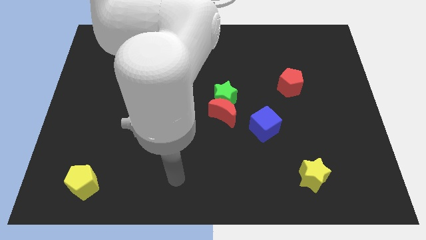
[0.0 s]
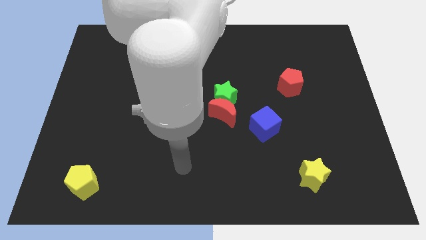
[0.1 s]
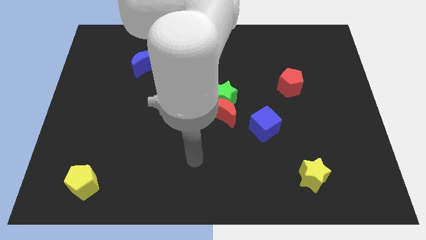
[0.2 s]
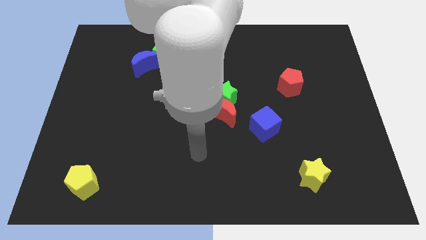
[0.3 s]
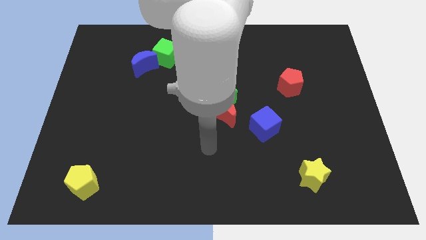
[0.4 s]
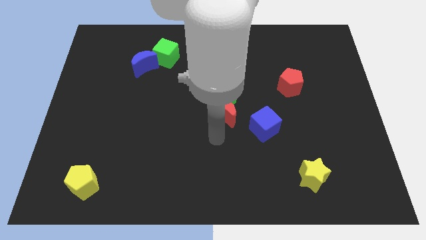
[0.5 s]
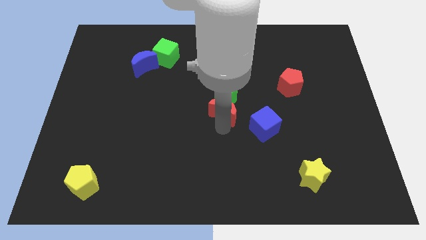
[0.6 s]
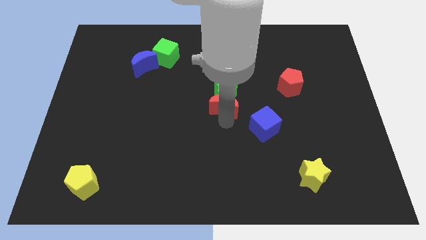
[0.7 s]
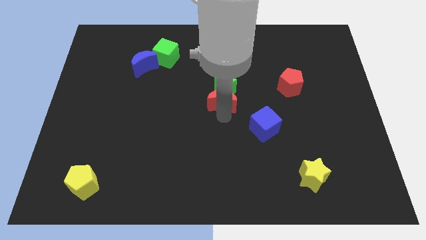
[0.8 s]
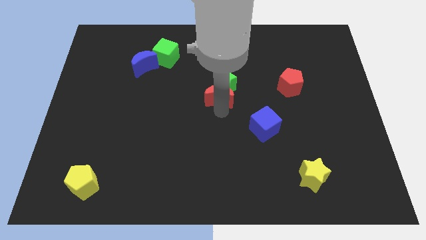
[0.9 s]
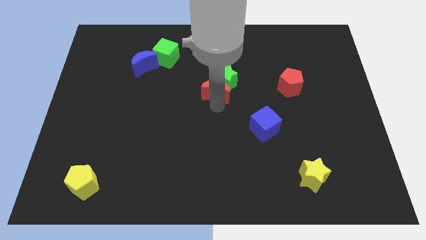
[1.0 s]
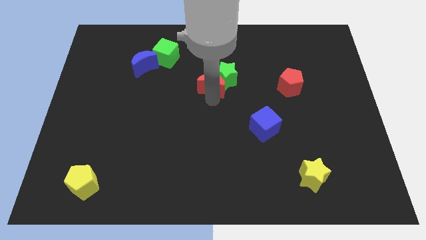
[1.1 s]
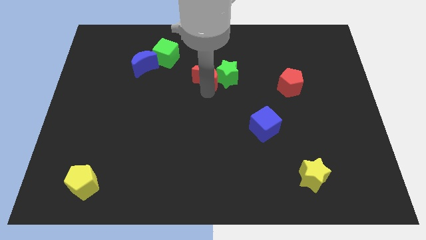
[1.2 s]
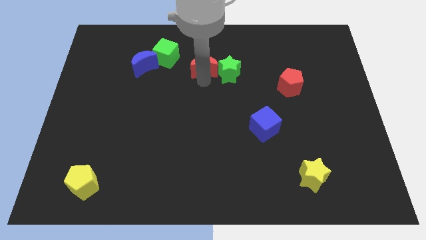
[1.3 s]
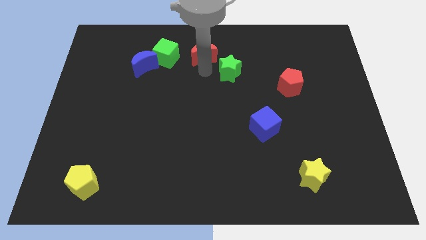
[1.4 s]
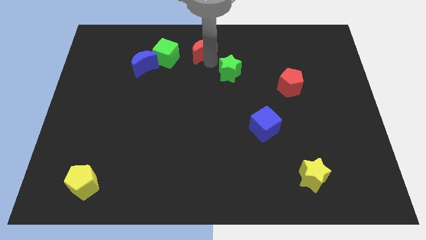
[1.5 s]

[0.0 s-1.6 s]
pull the green star apart from the red moon

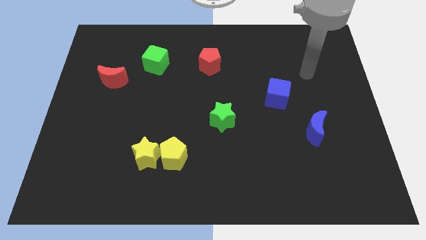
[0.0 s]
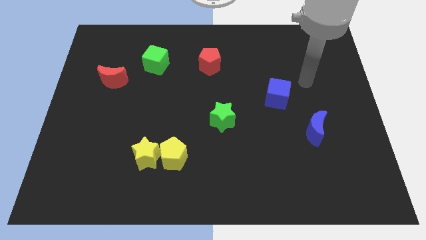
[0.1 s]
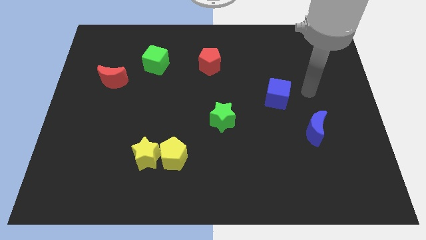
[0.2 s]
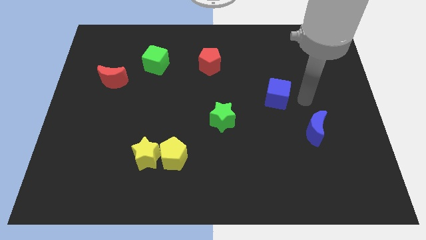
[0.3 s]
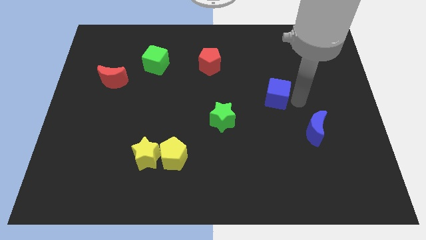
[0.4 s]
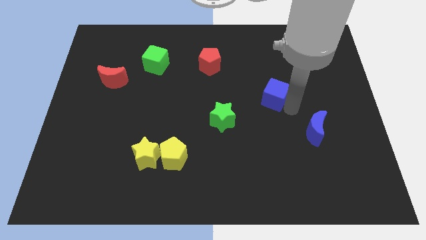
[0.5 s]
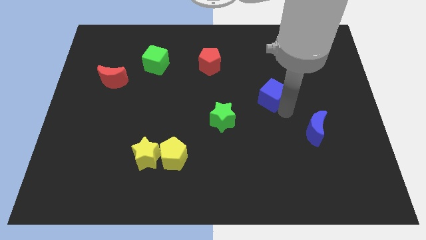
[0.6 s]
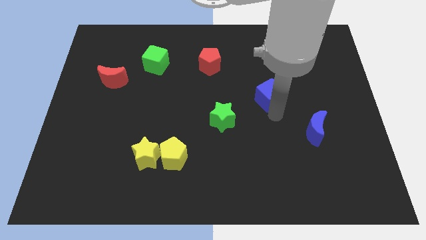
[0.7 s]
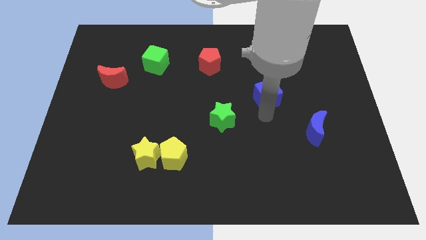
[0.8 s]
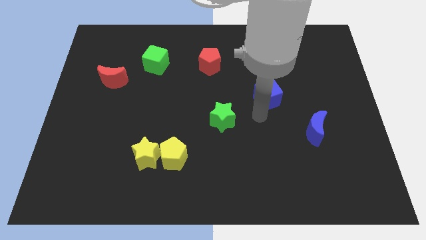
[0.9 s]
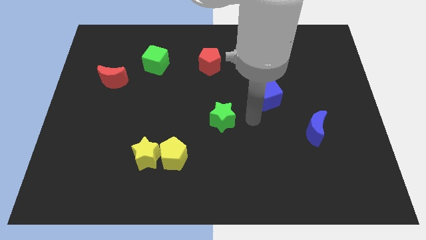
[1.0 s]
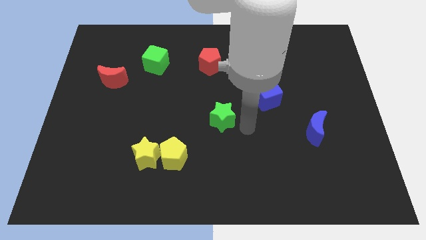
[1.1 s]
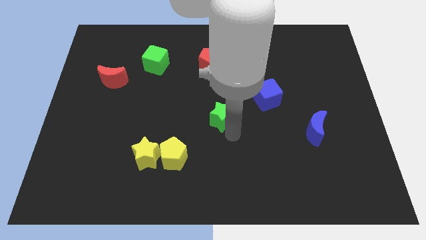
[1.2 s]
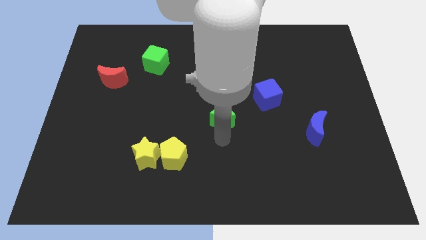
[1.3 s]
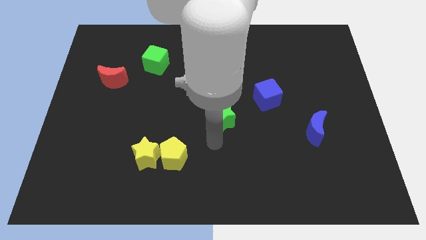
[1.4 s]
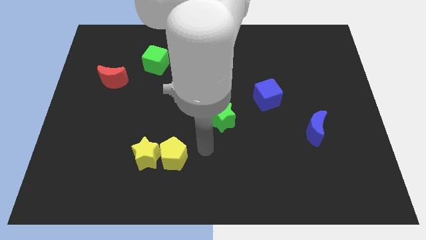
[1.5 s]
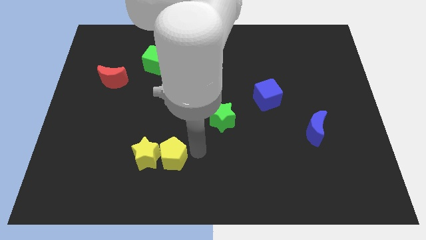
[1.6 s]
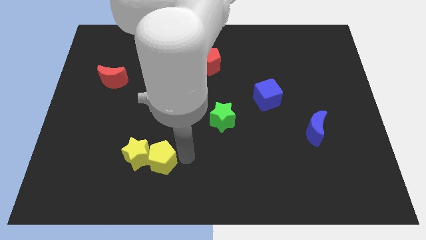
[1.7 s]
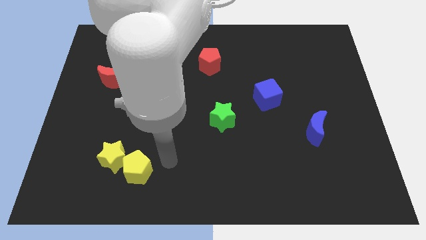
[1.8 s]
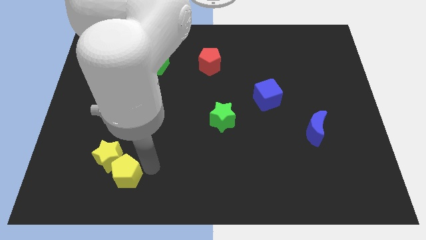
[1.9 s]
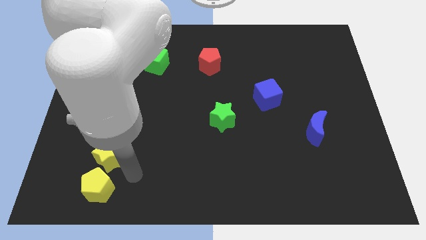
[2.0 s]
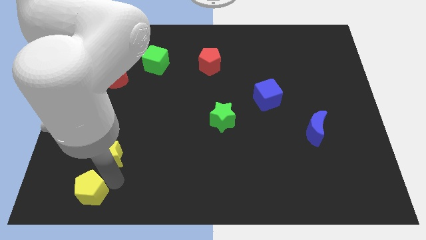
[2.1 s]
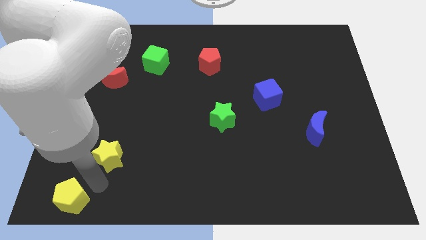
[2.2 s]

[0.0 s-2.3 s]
pull the yellow star apart from the yellow pentagon

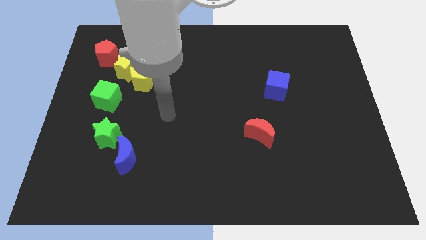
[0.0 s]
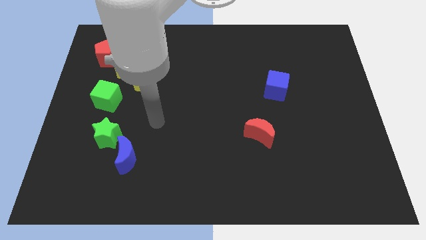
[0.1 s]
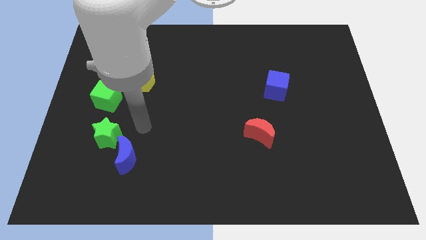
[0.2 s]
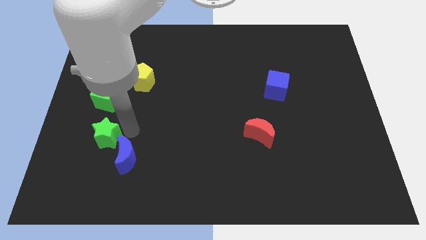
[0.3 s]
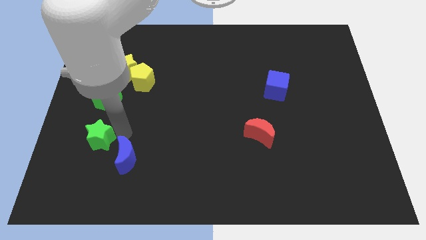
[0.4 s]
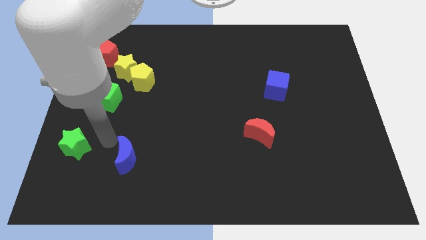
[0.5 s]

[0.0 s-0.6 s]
move the blue moon away from the green star

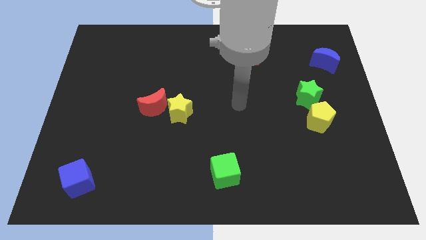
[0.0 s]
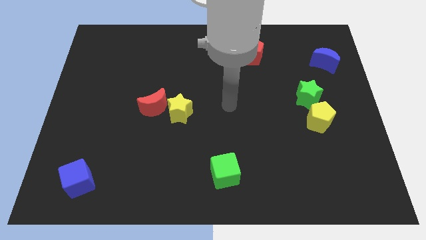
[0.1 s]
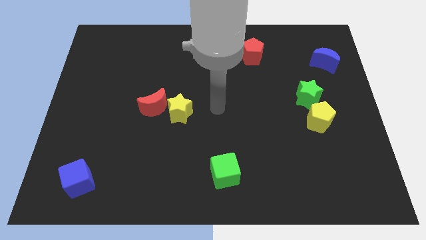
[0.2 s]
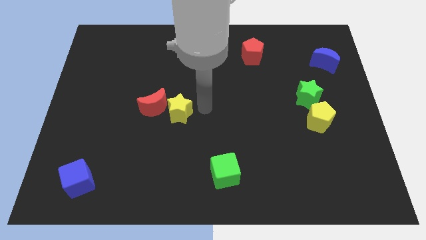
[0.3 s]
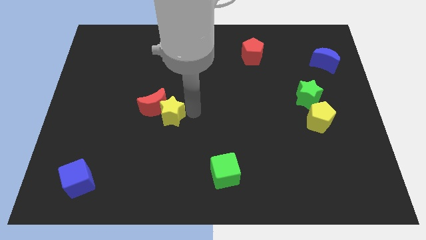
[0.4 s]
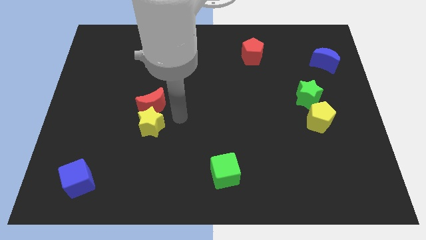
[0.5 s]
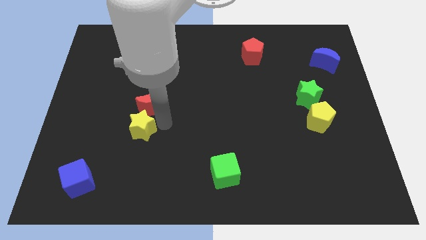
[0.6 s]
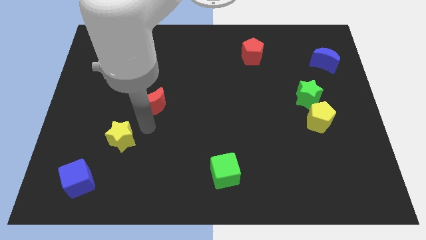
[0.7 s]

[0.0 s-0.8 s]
pull the red moon apart from the yellow star

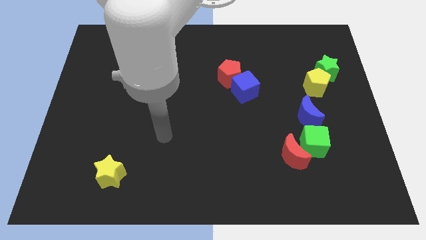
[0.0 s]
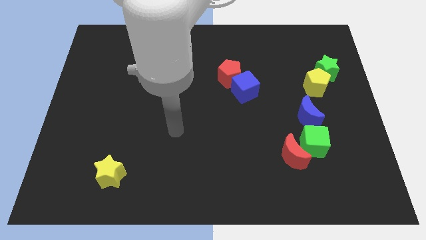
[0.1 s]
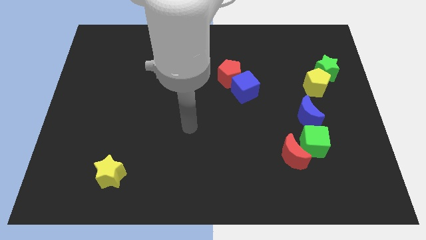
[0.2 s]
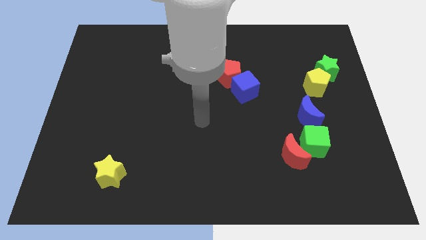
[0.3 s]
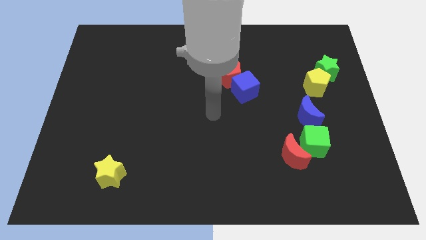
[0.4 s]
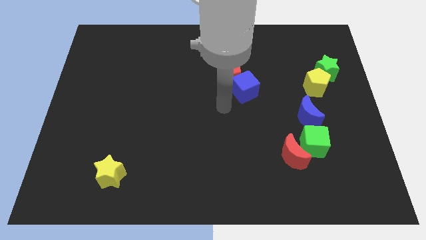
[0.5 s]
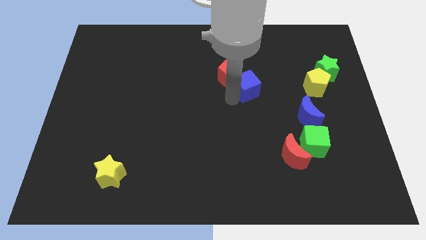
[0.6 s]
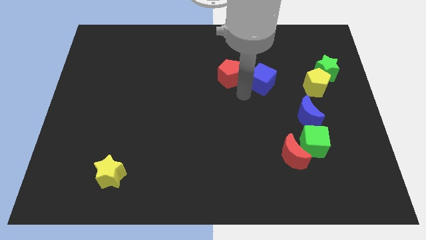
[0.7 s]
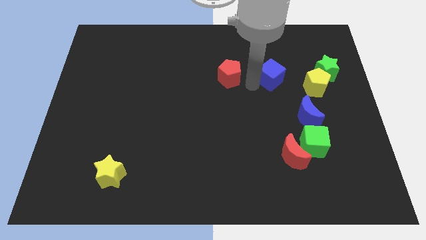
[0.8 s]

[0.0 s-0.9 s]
move the red pentagon away from the blue cube

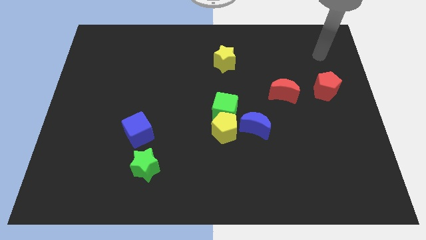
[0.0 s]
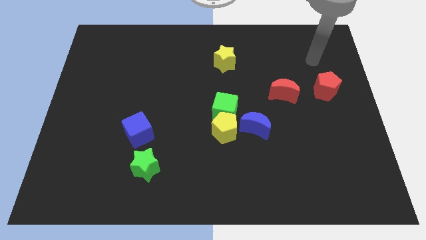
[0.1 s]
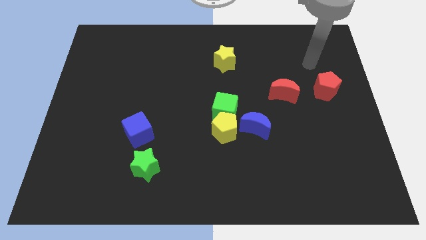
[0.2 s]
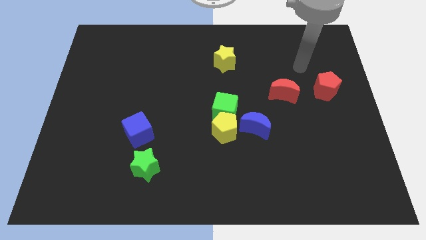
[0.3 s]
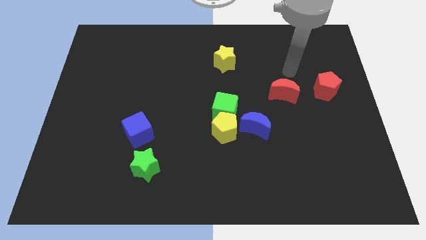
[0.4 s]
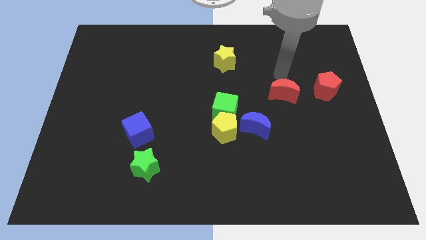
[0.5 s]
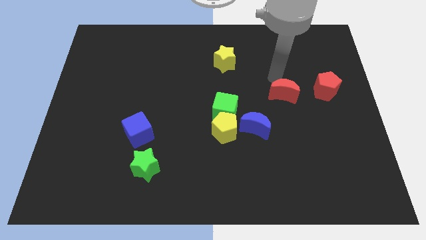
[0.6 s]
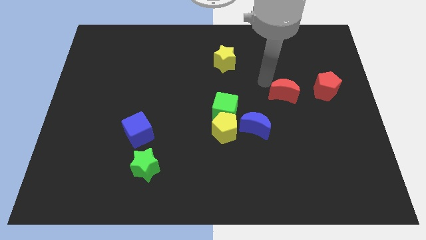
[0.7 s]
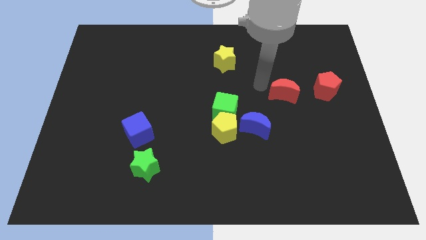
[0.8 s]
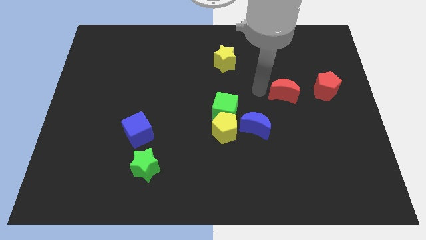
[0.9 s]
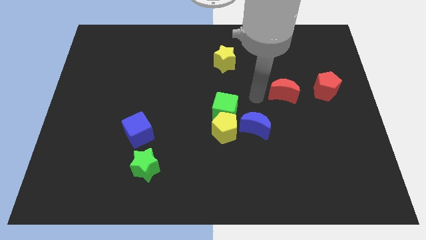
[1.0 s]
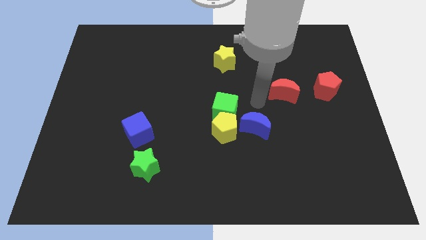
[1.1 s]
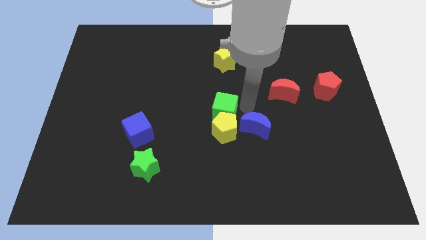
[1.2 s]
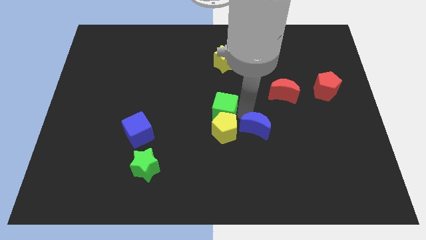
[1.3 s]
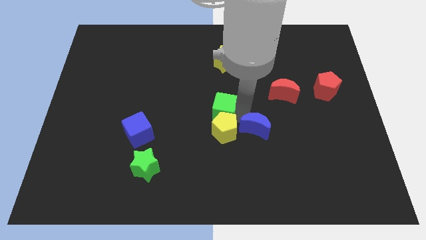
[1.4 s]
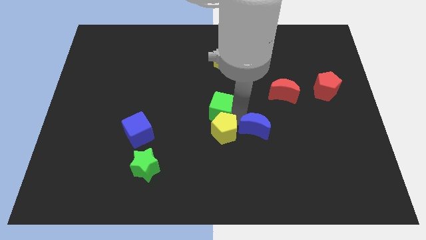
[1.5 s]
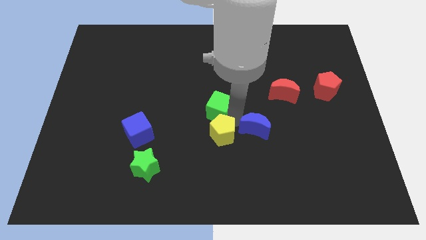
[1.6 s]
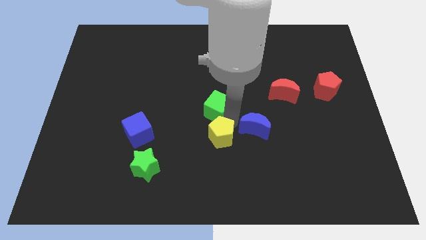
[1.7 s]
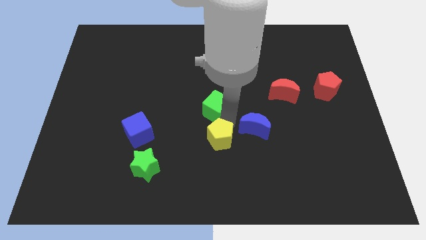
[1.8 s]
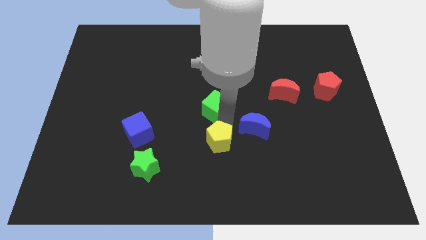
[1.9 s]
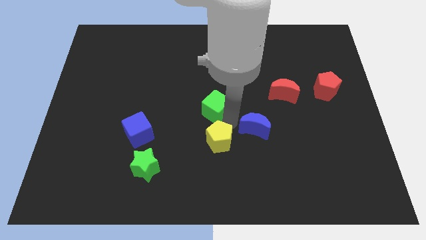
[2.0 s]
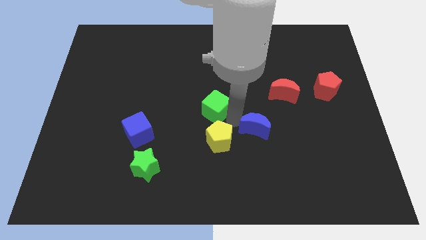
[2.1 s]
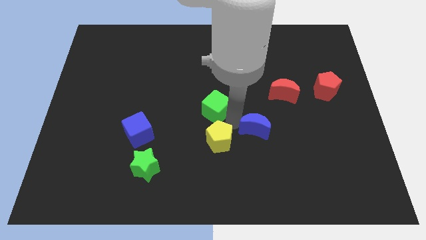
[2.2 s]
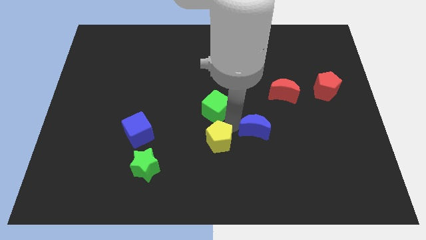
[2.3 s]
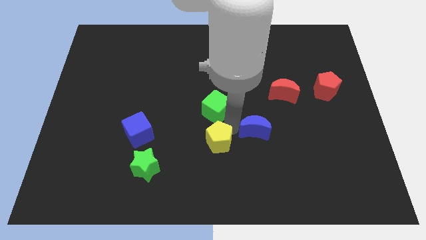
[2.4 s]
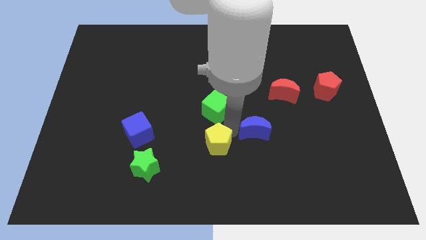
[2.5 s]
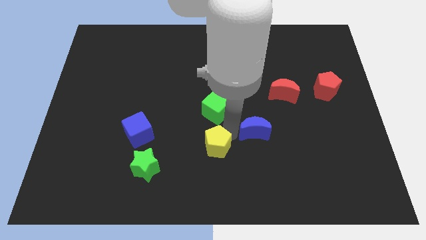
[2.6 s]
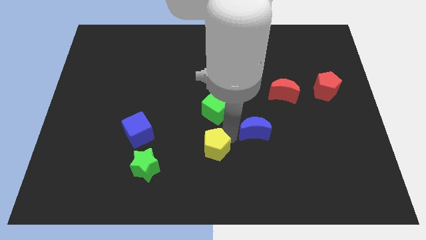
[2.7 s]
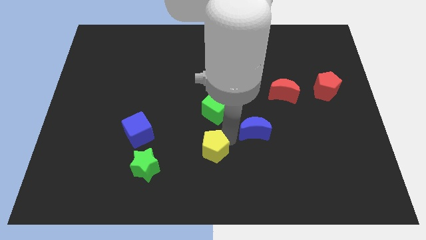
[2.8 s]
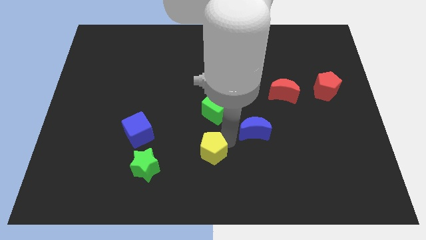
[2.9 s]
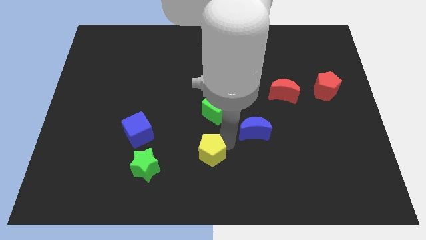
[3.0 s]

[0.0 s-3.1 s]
move the yellow pentagon away from the green cube and blue moon
